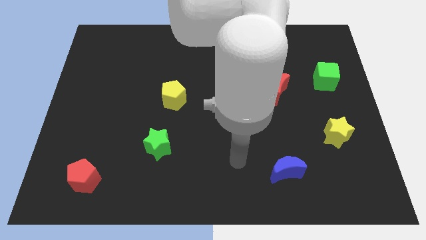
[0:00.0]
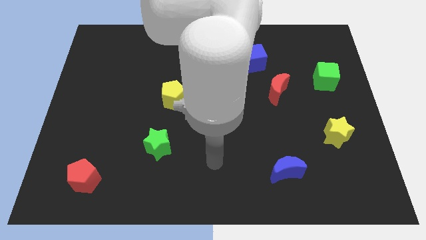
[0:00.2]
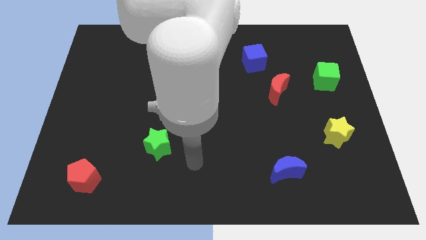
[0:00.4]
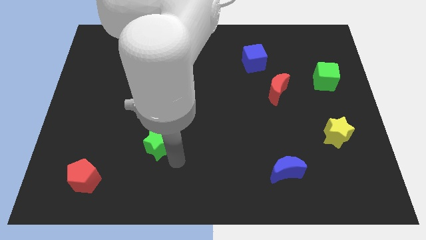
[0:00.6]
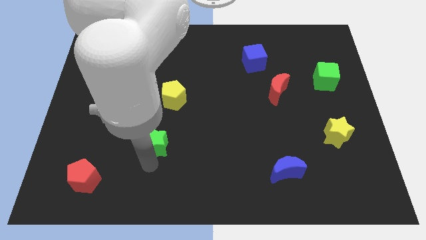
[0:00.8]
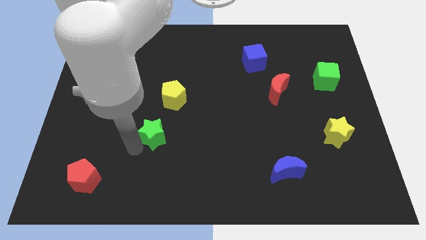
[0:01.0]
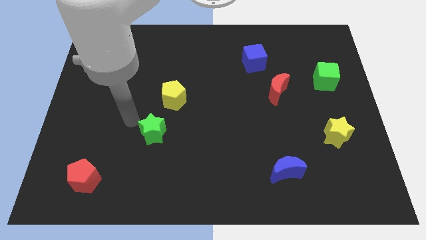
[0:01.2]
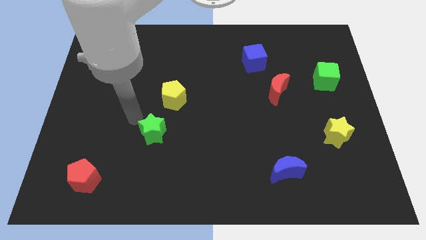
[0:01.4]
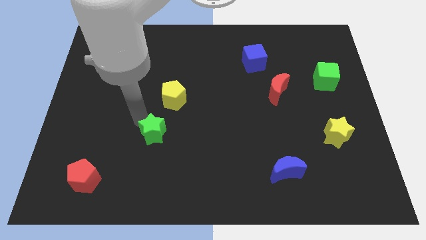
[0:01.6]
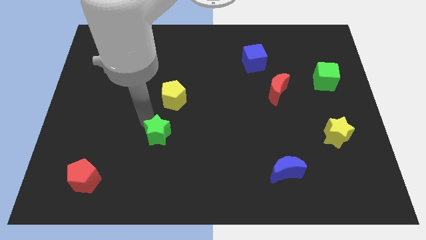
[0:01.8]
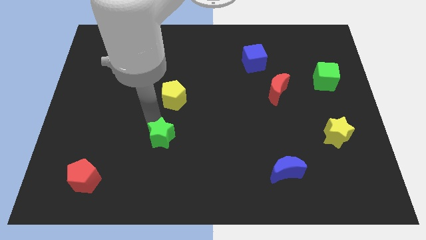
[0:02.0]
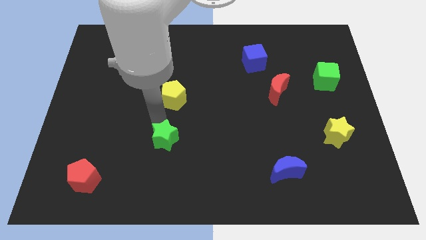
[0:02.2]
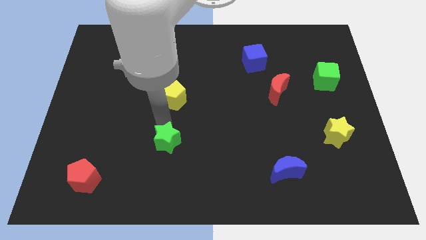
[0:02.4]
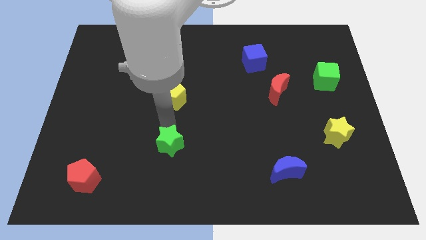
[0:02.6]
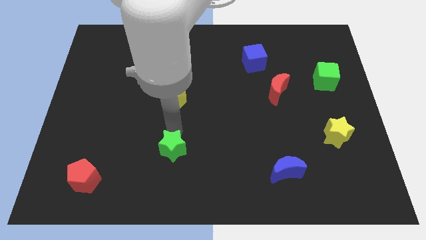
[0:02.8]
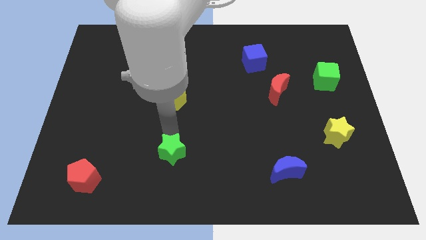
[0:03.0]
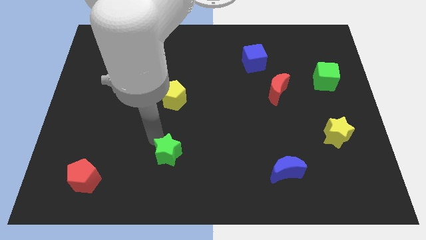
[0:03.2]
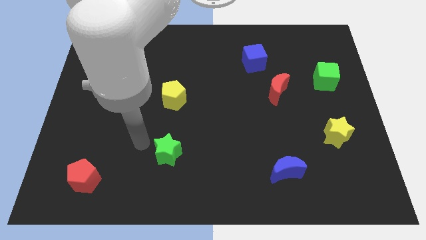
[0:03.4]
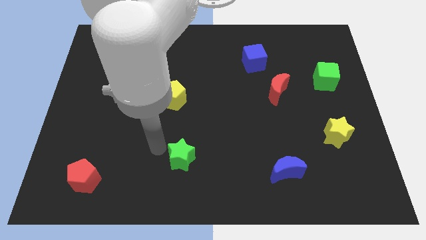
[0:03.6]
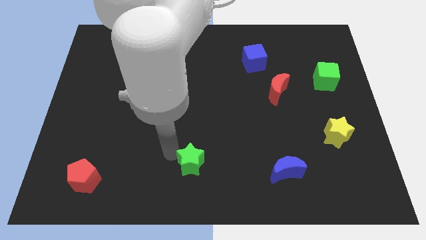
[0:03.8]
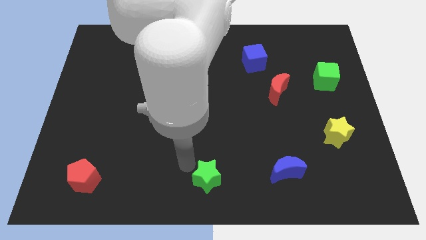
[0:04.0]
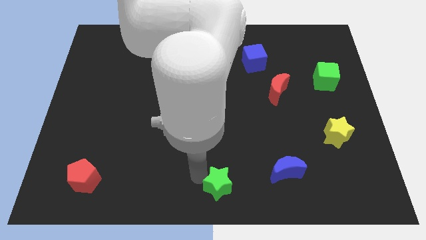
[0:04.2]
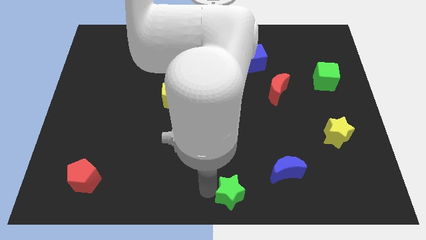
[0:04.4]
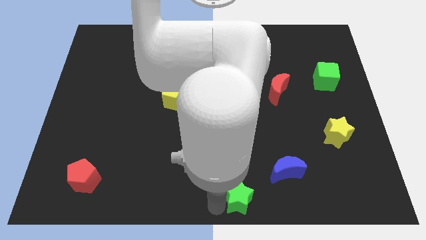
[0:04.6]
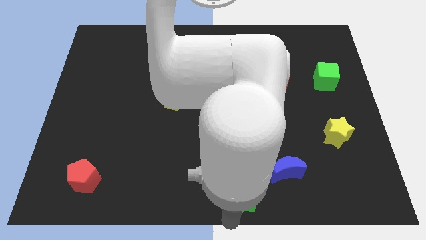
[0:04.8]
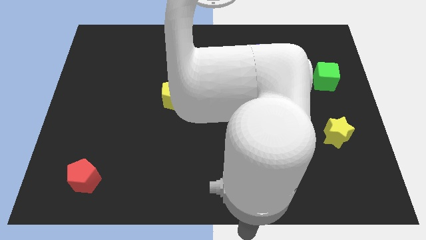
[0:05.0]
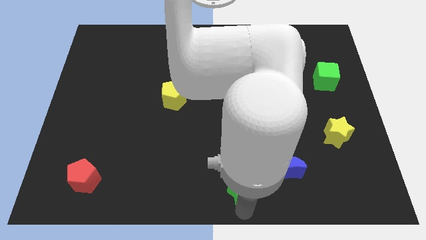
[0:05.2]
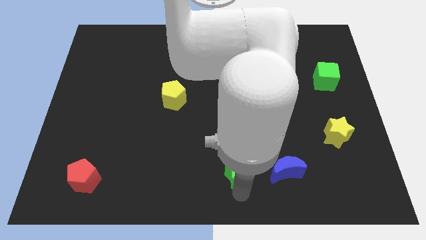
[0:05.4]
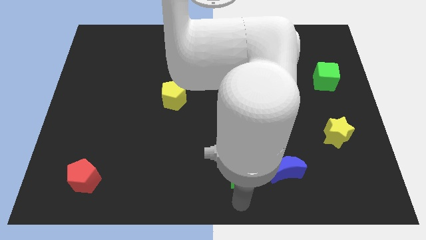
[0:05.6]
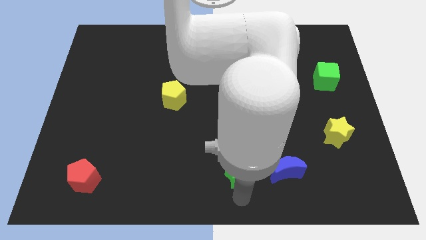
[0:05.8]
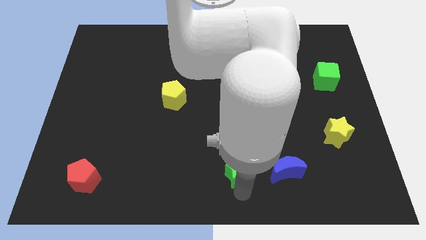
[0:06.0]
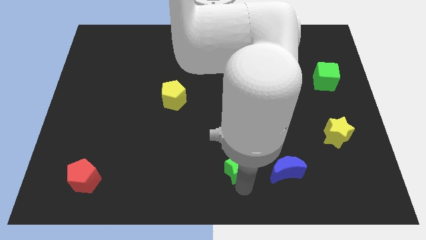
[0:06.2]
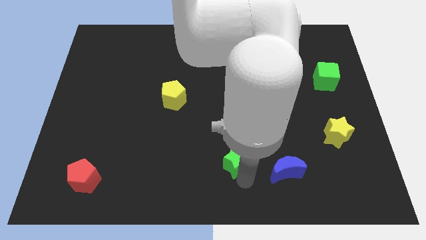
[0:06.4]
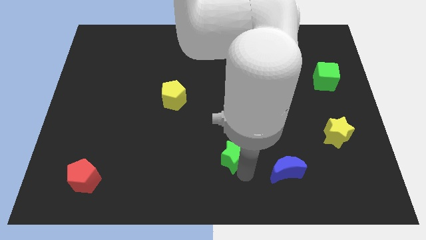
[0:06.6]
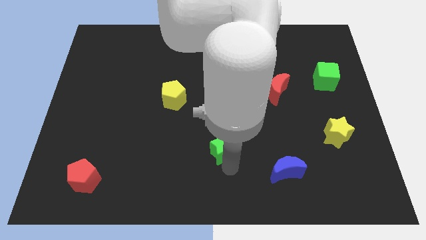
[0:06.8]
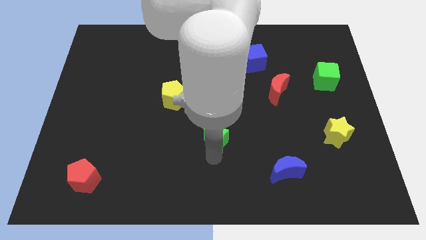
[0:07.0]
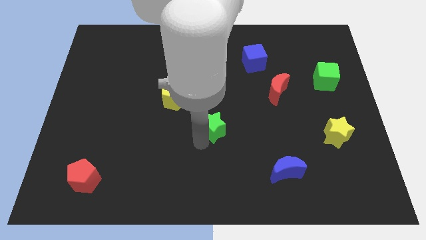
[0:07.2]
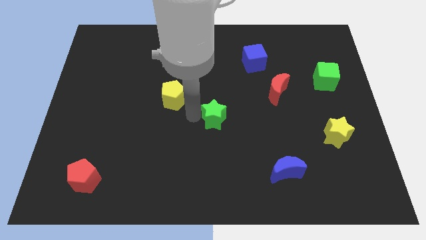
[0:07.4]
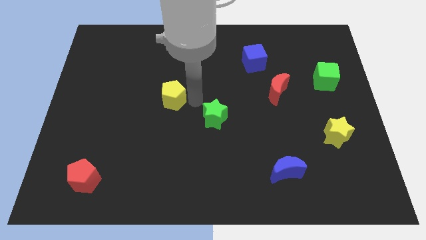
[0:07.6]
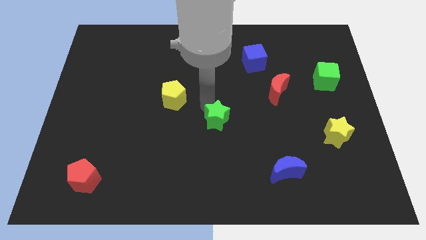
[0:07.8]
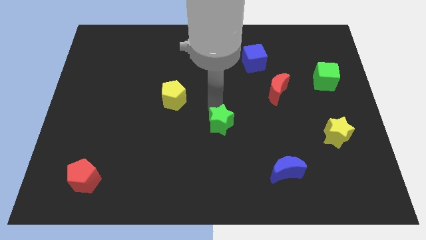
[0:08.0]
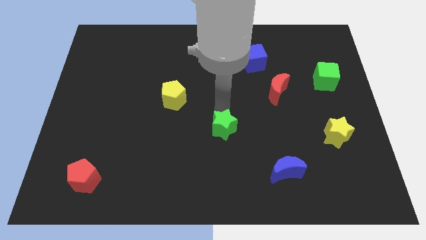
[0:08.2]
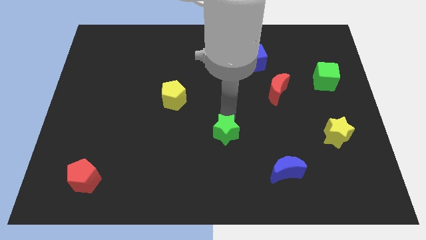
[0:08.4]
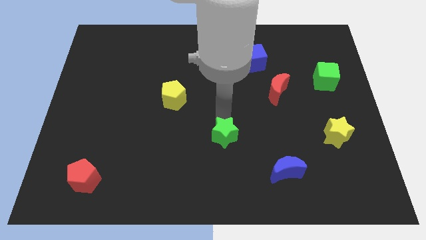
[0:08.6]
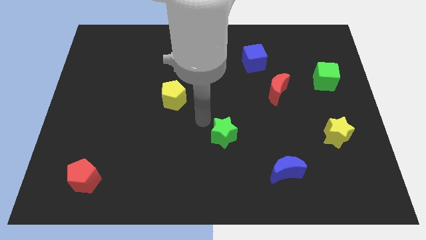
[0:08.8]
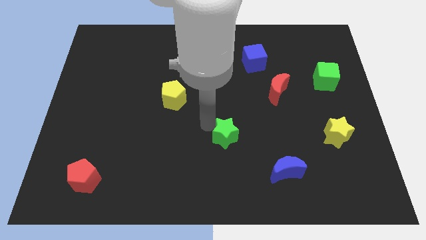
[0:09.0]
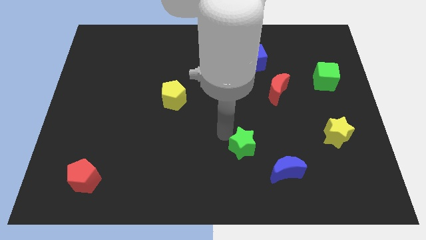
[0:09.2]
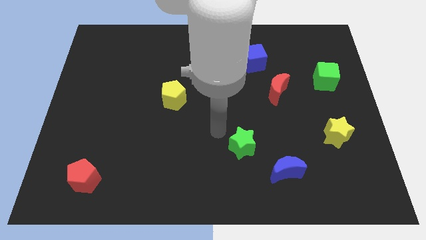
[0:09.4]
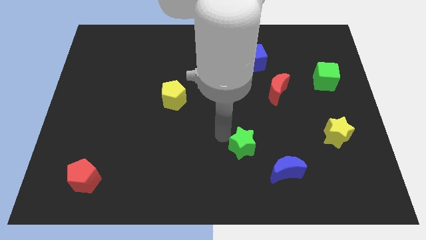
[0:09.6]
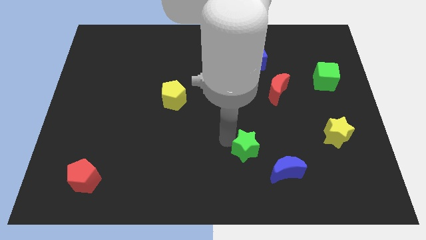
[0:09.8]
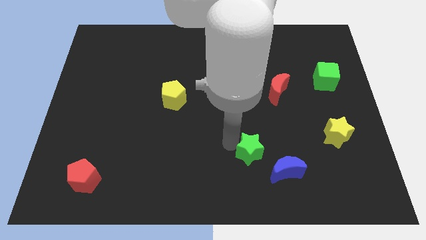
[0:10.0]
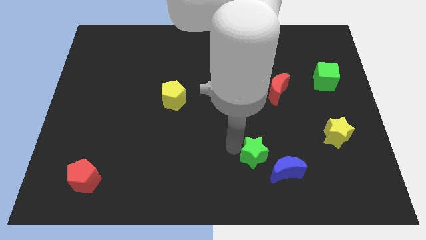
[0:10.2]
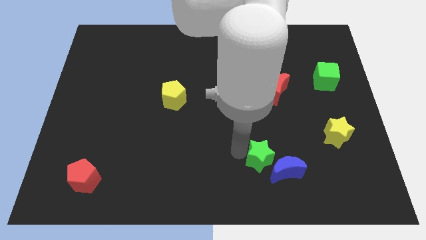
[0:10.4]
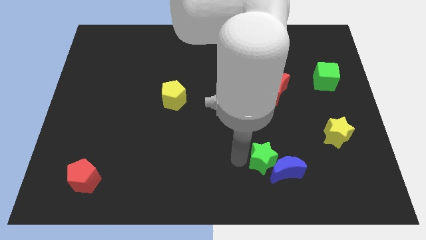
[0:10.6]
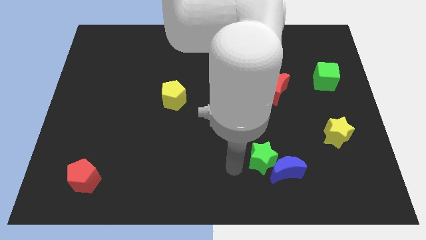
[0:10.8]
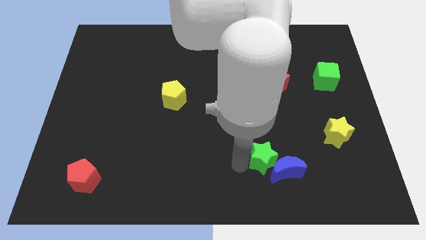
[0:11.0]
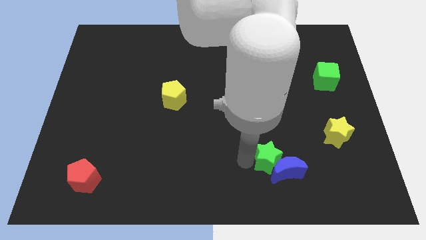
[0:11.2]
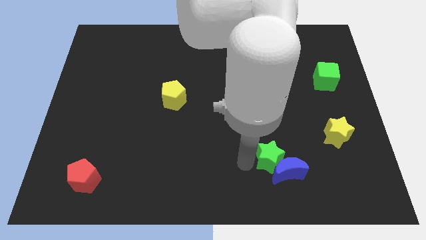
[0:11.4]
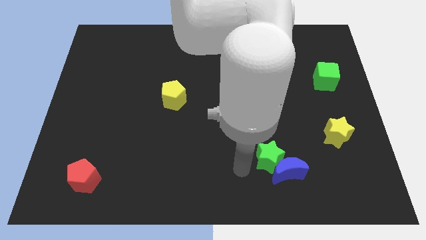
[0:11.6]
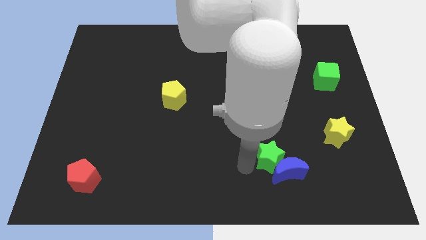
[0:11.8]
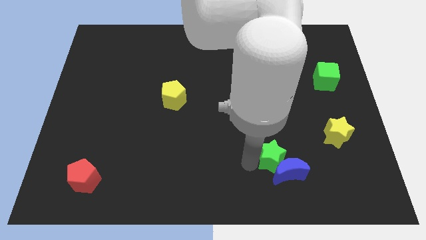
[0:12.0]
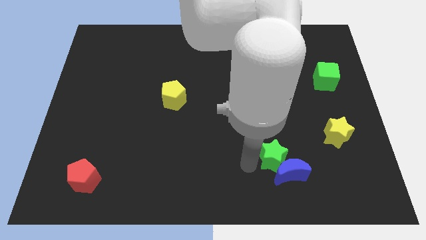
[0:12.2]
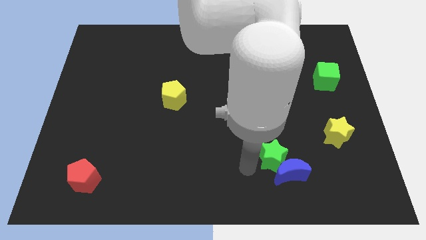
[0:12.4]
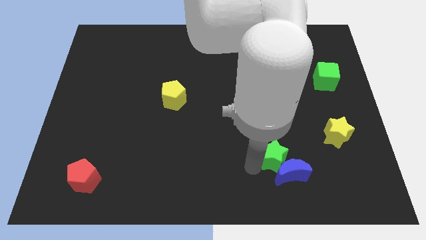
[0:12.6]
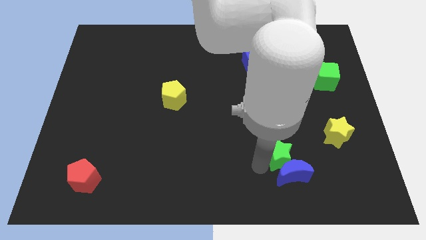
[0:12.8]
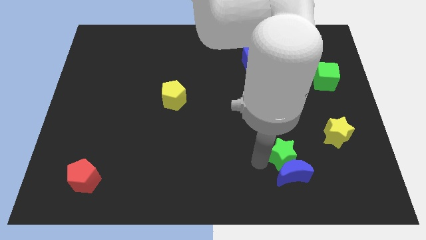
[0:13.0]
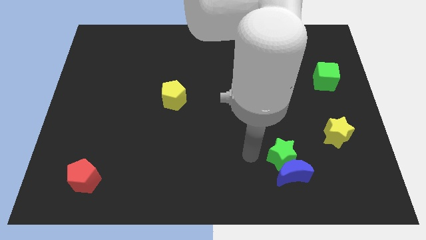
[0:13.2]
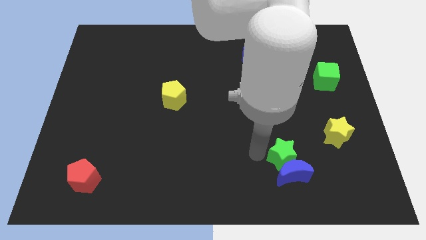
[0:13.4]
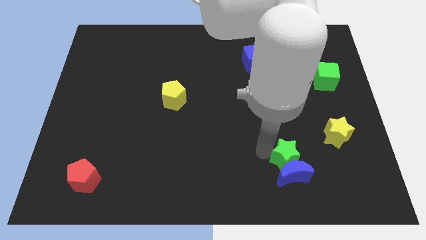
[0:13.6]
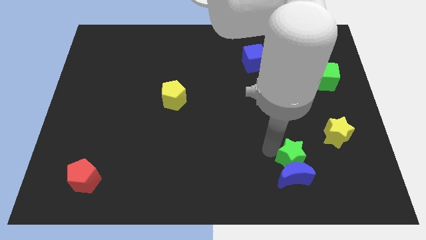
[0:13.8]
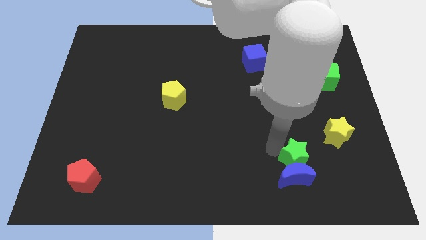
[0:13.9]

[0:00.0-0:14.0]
move the green star diagonally down and to the left of the yellow star

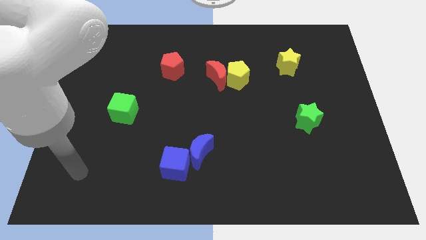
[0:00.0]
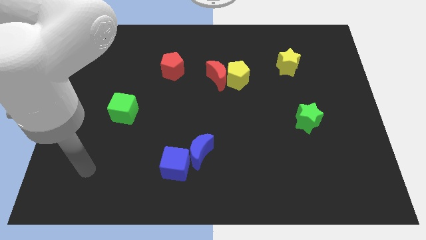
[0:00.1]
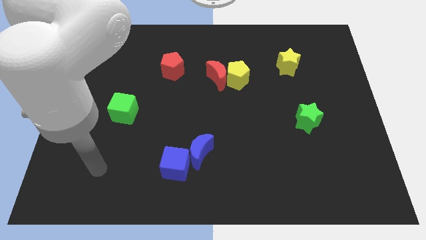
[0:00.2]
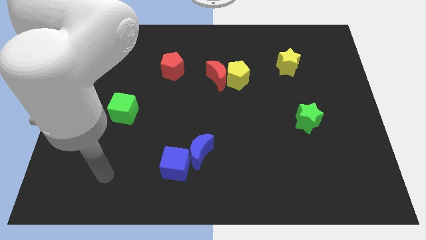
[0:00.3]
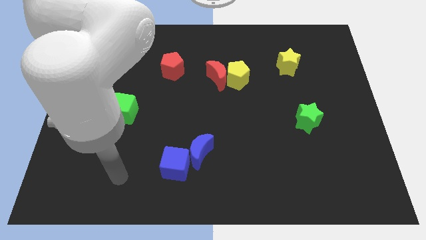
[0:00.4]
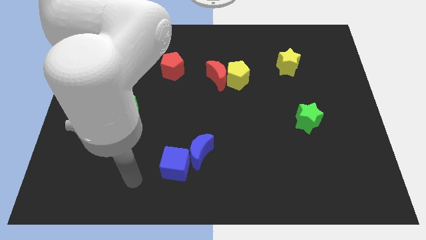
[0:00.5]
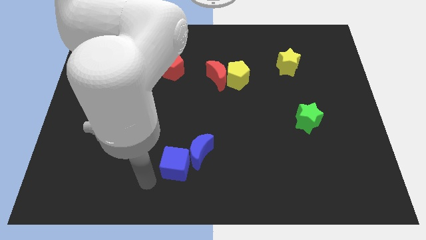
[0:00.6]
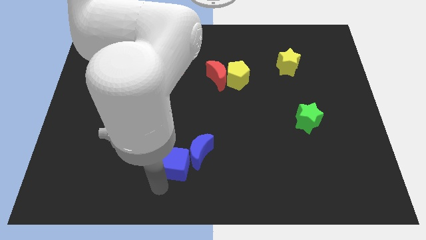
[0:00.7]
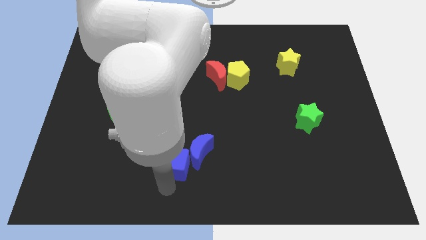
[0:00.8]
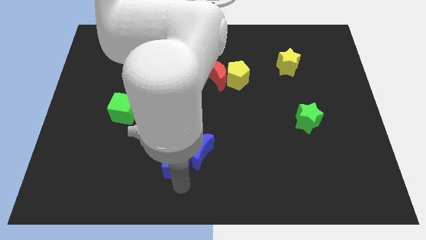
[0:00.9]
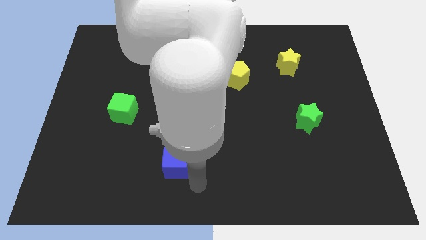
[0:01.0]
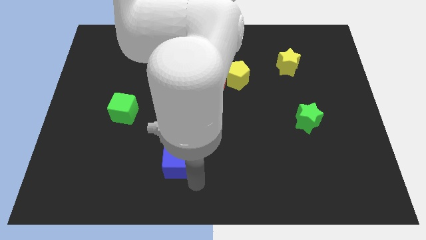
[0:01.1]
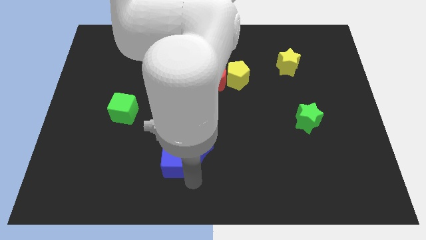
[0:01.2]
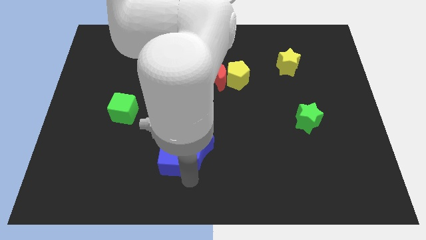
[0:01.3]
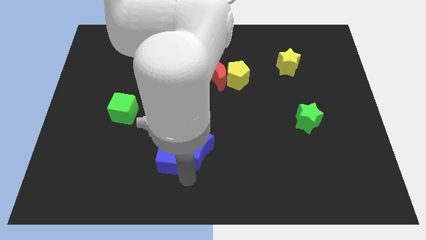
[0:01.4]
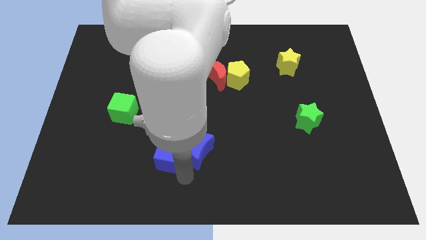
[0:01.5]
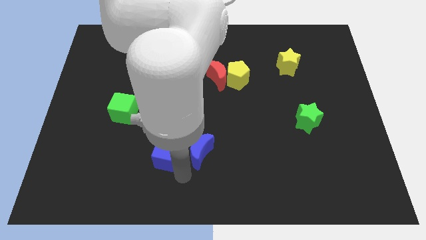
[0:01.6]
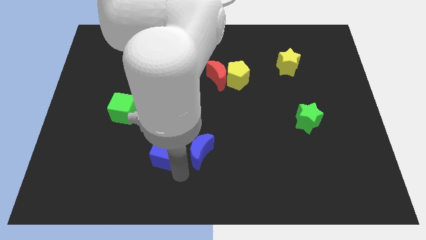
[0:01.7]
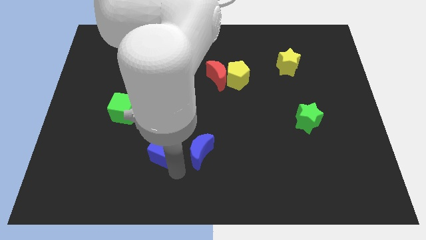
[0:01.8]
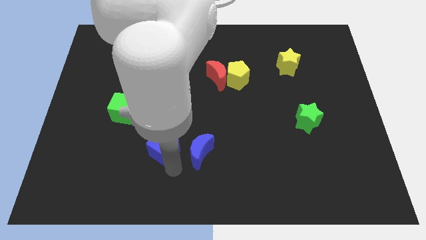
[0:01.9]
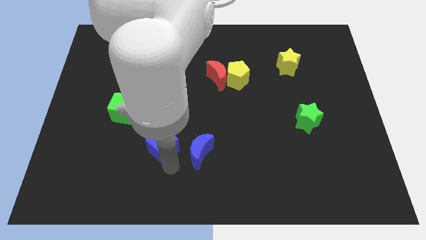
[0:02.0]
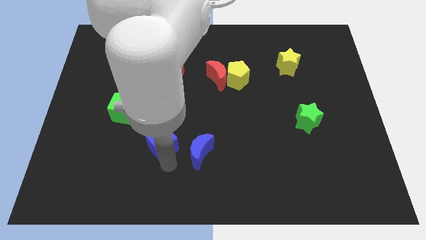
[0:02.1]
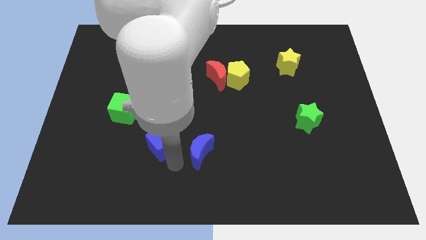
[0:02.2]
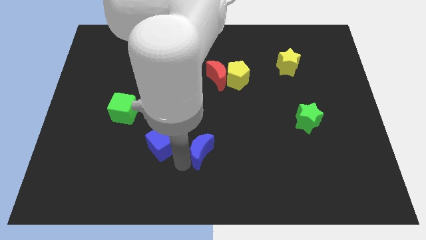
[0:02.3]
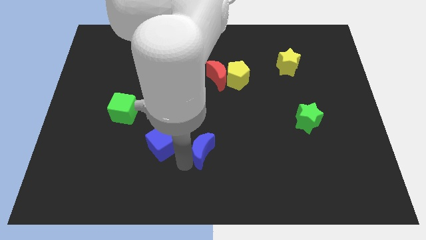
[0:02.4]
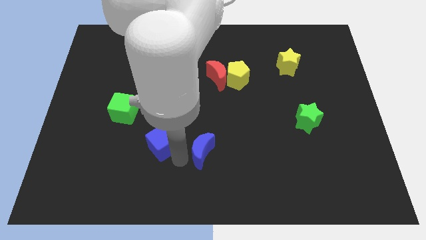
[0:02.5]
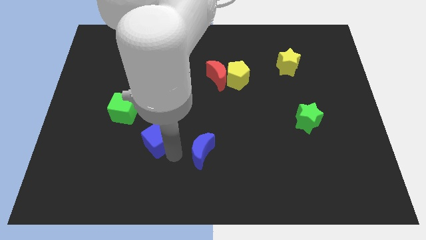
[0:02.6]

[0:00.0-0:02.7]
push the blue cube diagonally down and to the right of the green cube
